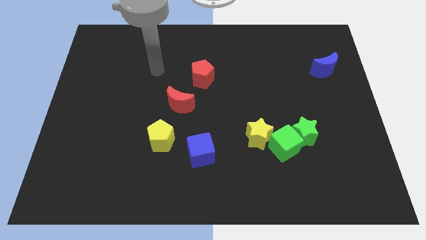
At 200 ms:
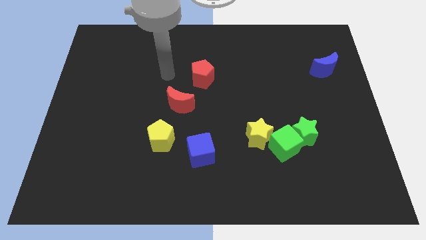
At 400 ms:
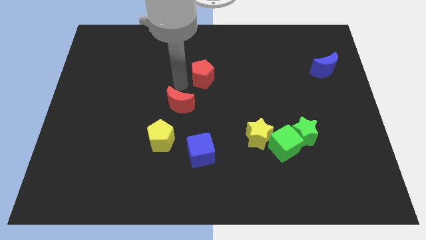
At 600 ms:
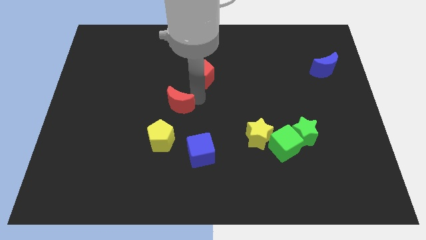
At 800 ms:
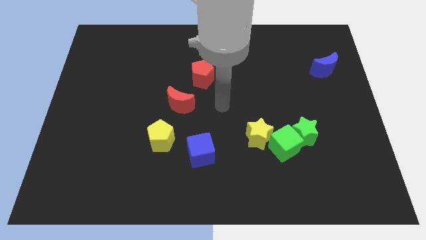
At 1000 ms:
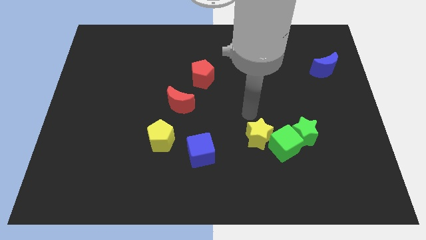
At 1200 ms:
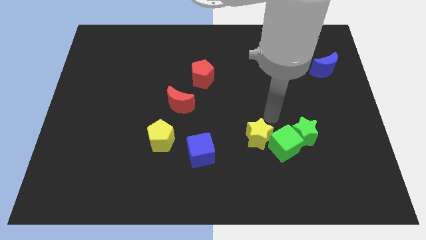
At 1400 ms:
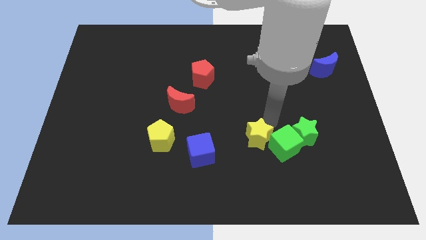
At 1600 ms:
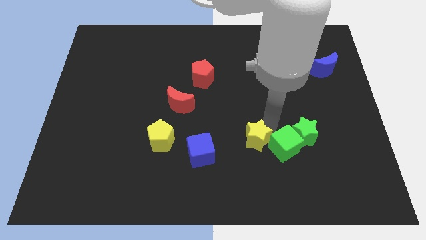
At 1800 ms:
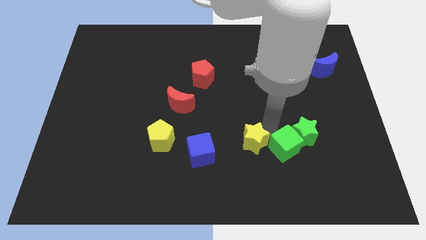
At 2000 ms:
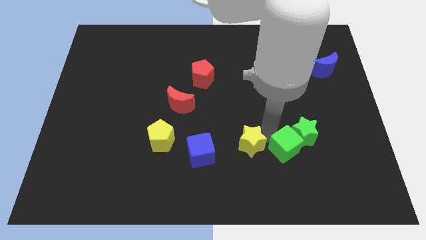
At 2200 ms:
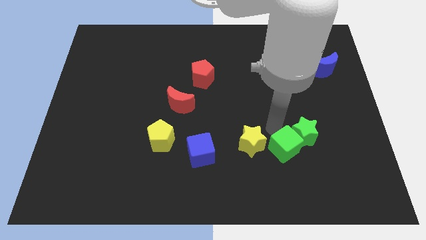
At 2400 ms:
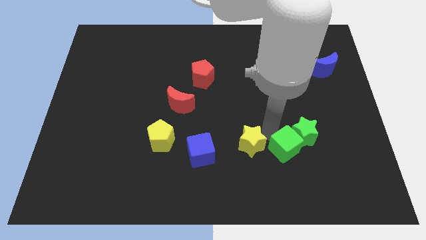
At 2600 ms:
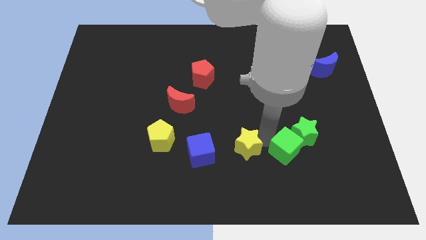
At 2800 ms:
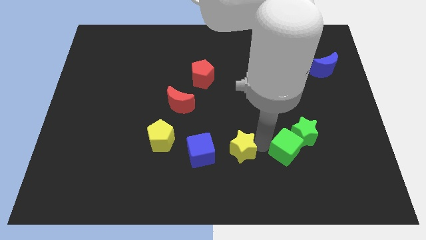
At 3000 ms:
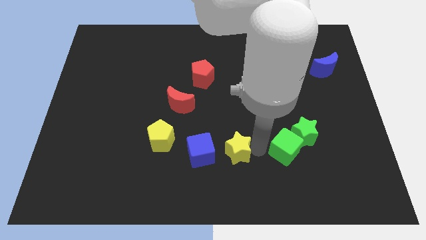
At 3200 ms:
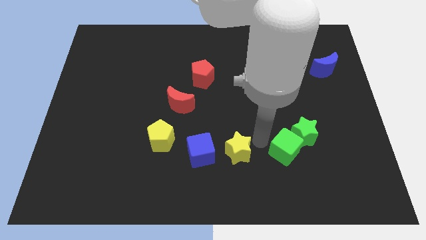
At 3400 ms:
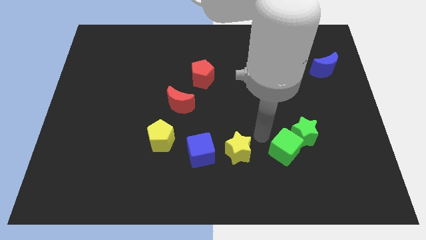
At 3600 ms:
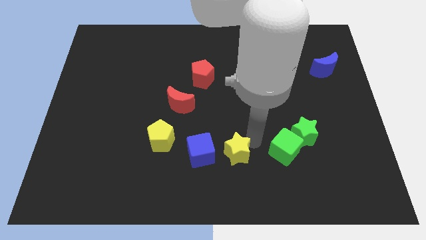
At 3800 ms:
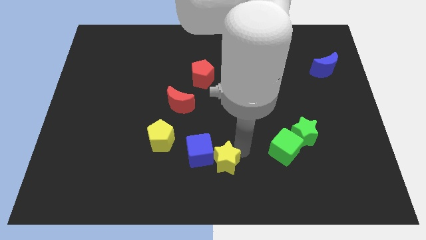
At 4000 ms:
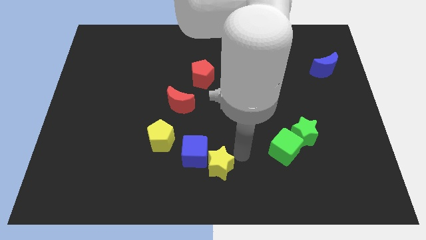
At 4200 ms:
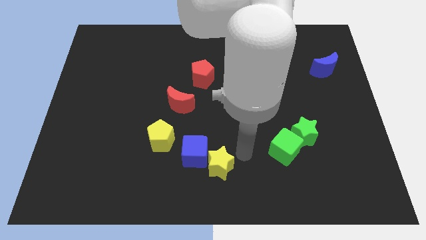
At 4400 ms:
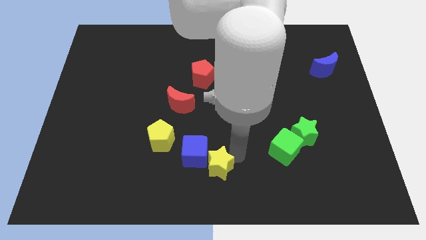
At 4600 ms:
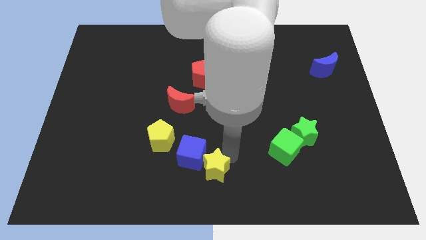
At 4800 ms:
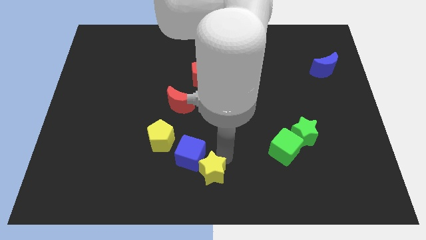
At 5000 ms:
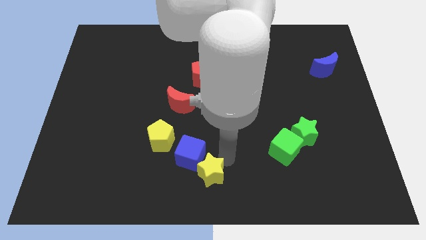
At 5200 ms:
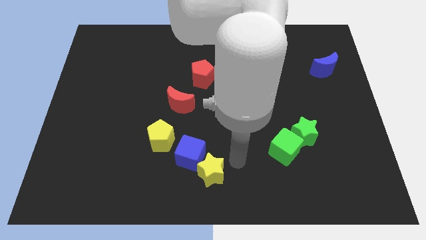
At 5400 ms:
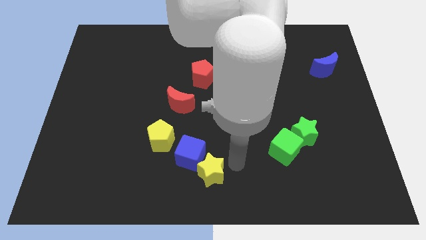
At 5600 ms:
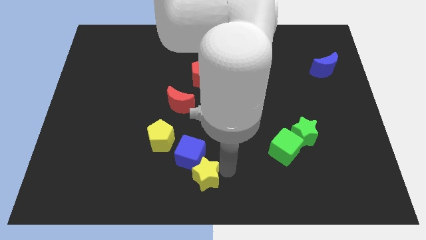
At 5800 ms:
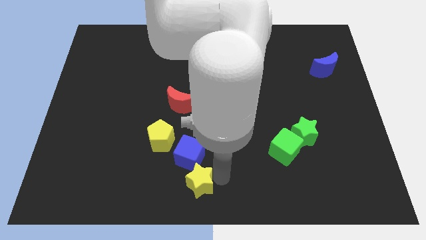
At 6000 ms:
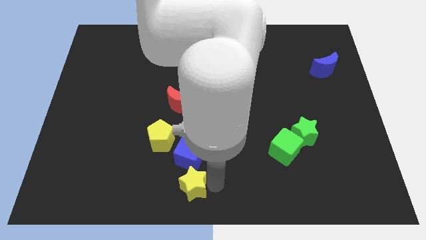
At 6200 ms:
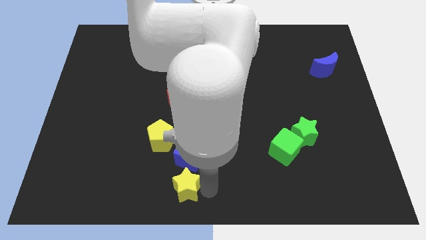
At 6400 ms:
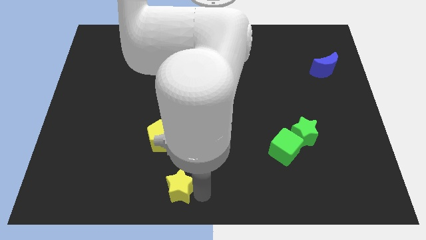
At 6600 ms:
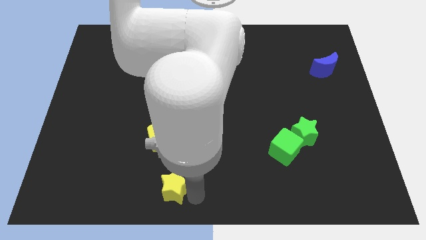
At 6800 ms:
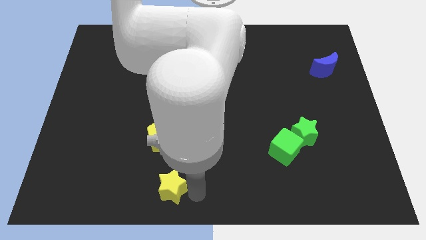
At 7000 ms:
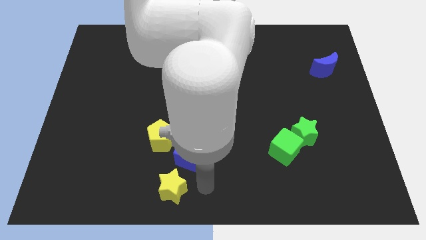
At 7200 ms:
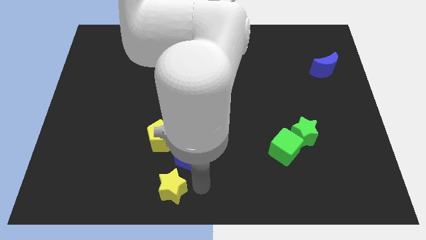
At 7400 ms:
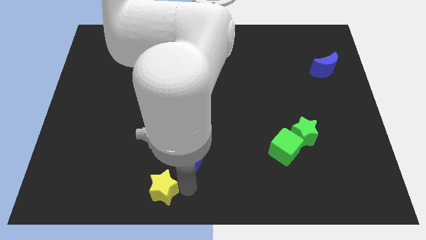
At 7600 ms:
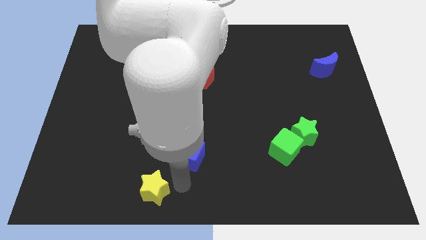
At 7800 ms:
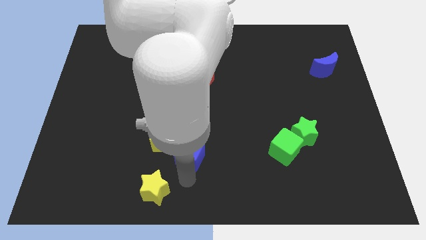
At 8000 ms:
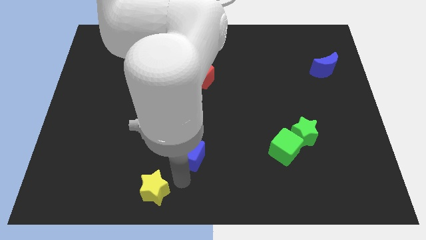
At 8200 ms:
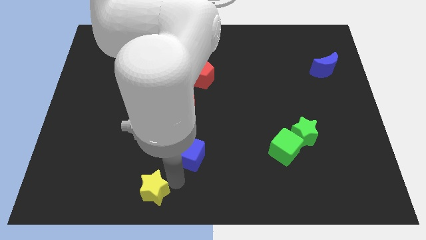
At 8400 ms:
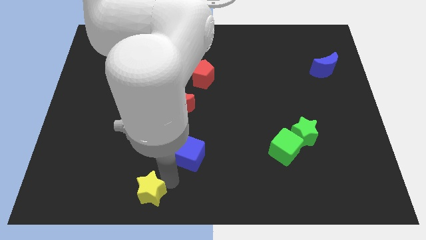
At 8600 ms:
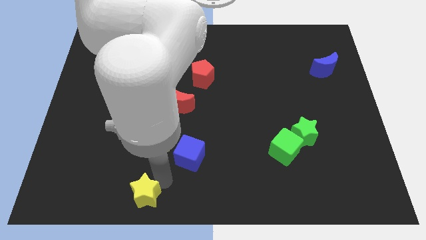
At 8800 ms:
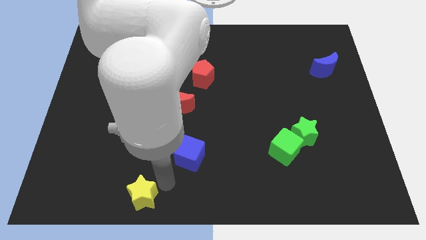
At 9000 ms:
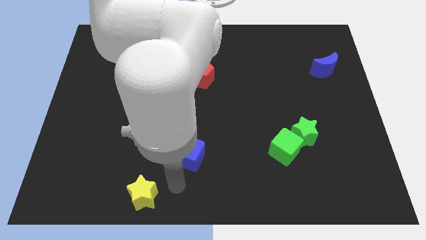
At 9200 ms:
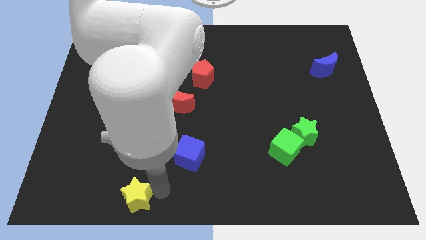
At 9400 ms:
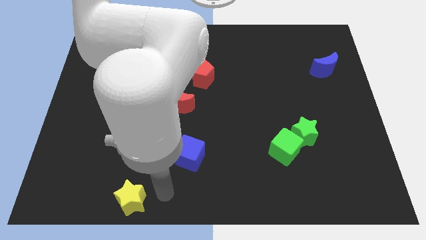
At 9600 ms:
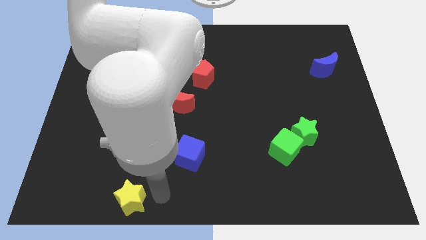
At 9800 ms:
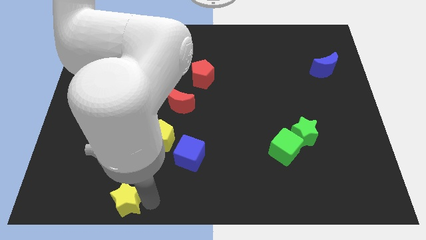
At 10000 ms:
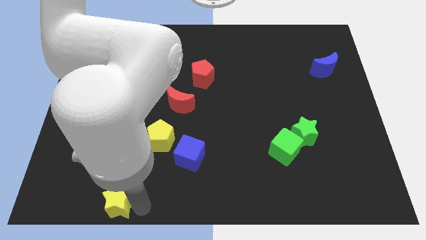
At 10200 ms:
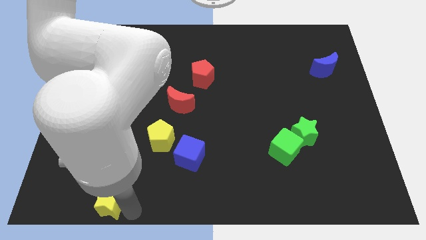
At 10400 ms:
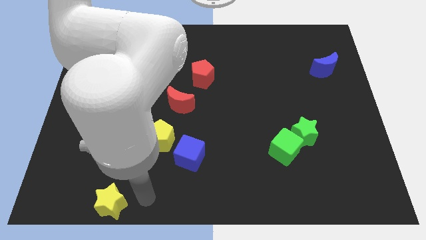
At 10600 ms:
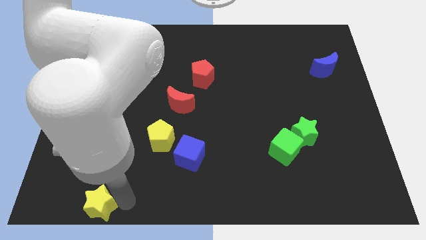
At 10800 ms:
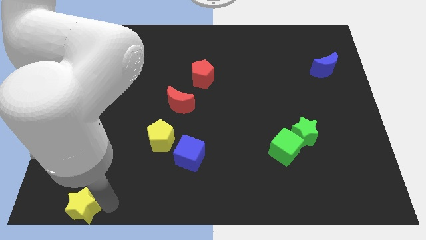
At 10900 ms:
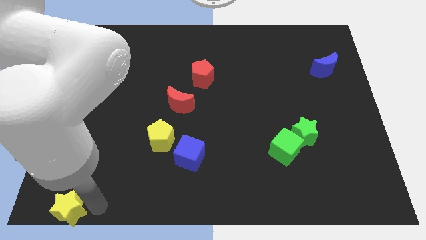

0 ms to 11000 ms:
slide the yellow star to the bottom left

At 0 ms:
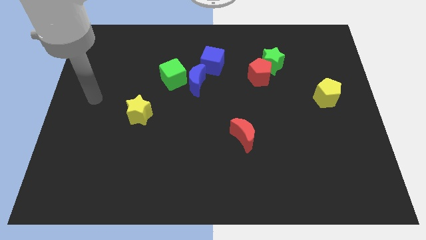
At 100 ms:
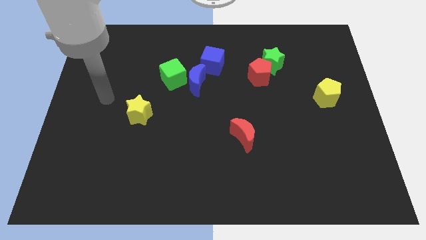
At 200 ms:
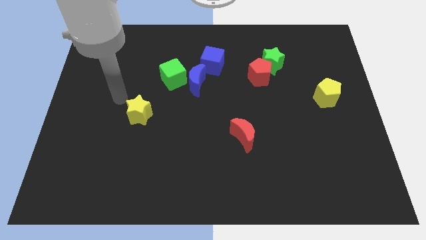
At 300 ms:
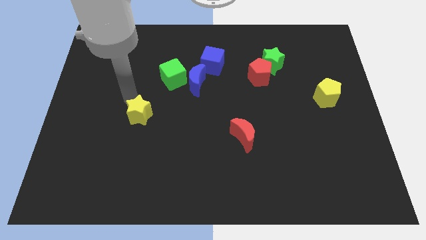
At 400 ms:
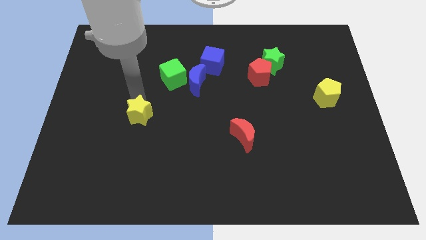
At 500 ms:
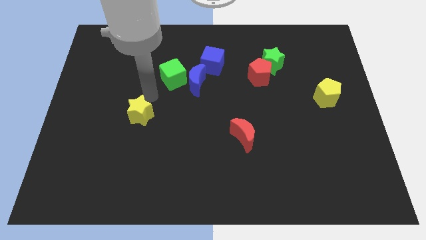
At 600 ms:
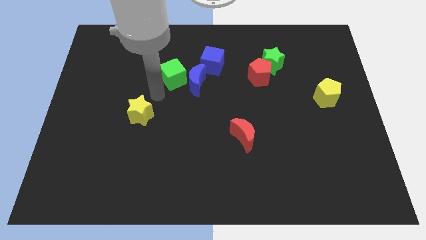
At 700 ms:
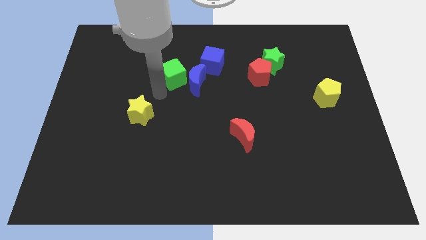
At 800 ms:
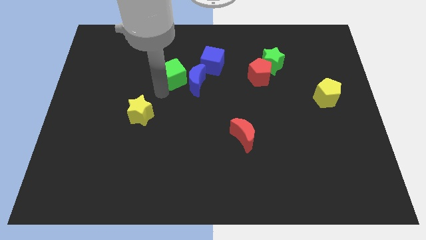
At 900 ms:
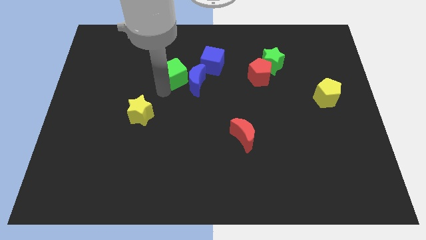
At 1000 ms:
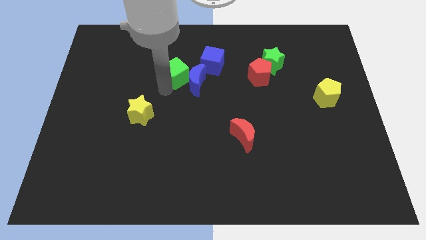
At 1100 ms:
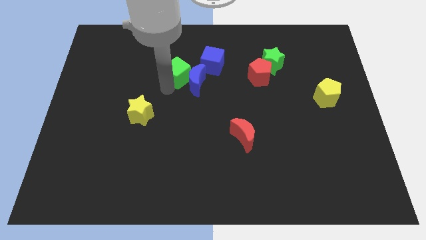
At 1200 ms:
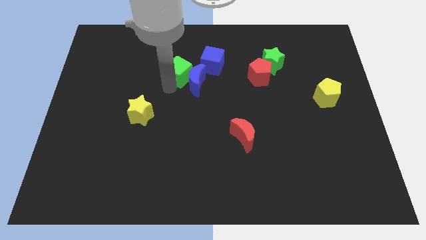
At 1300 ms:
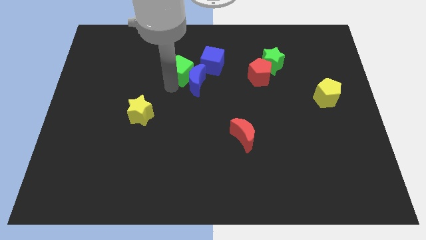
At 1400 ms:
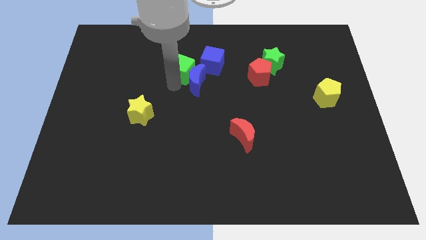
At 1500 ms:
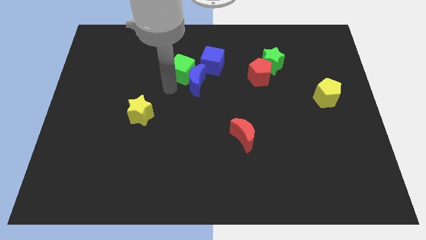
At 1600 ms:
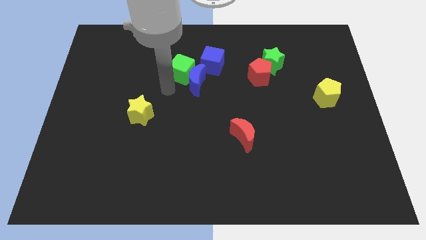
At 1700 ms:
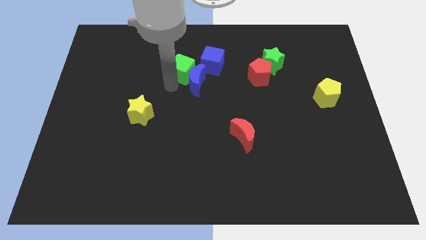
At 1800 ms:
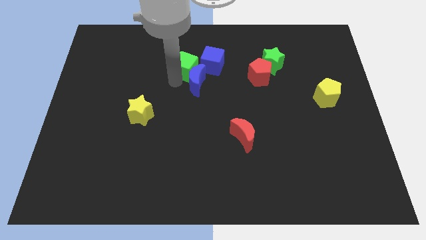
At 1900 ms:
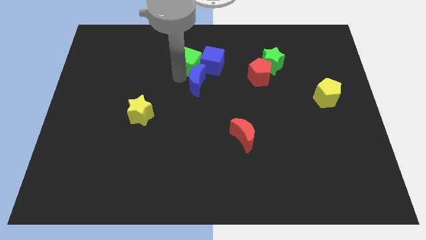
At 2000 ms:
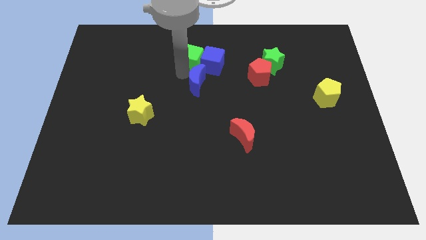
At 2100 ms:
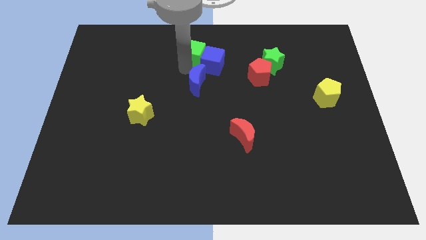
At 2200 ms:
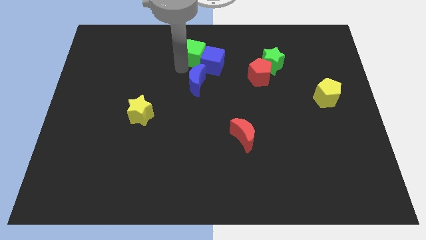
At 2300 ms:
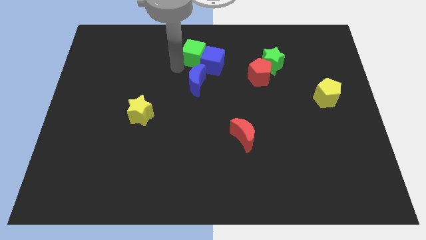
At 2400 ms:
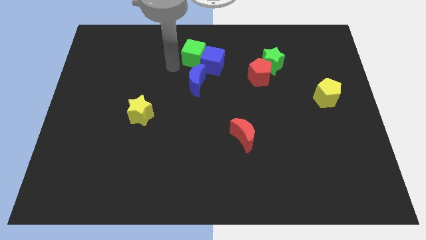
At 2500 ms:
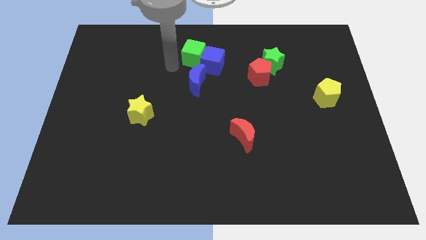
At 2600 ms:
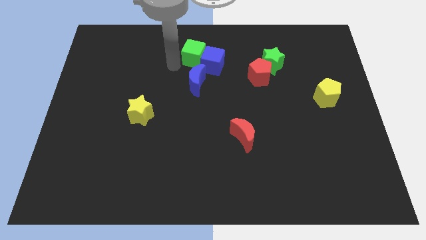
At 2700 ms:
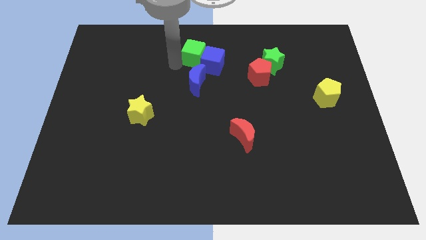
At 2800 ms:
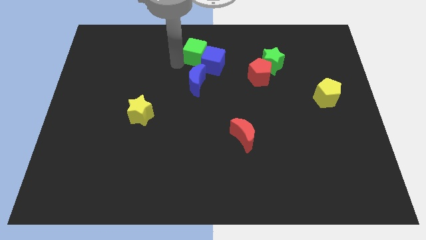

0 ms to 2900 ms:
move the green cube to the top
